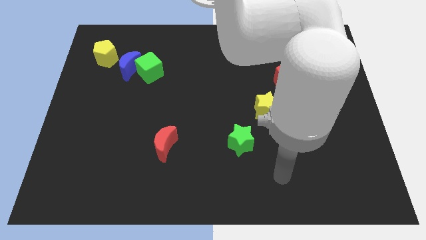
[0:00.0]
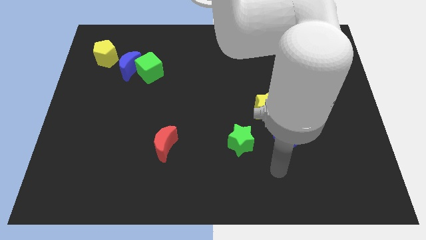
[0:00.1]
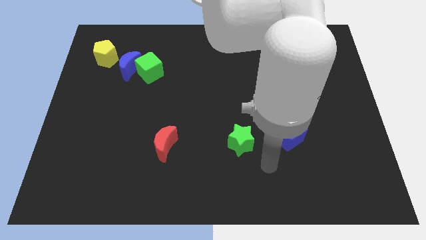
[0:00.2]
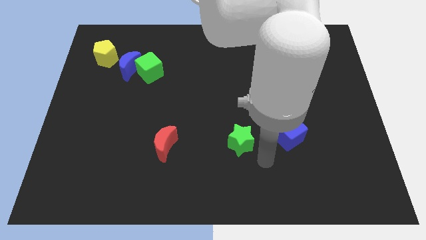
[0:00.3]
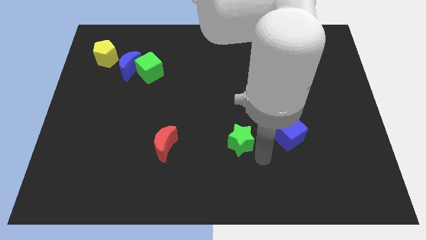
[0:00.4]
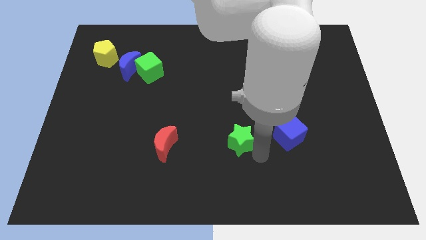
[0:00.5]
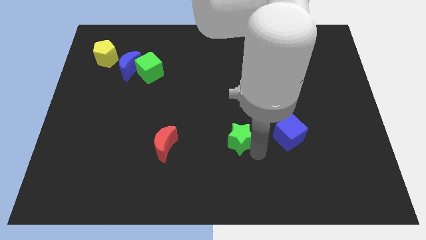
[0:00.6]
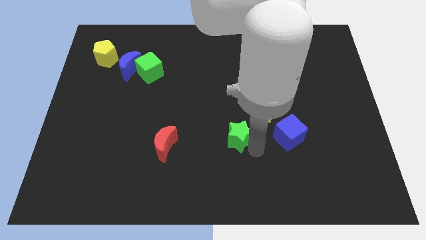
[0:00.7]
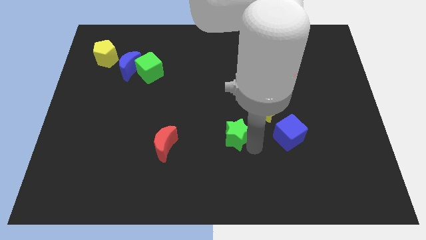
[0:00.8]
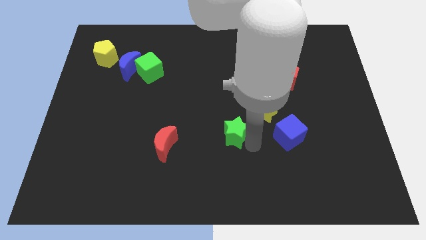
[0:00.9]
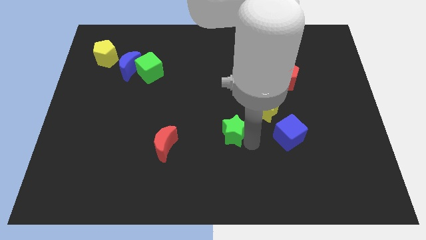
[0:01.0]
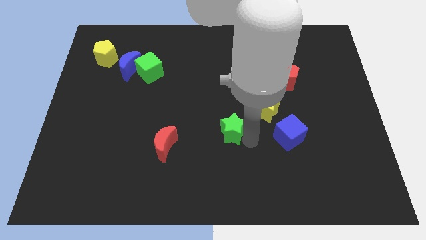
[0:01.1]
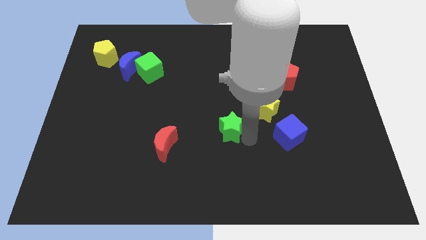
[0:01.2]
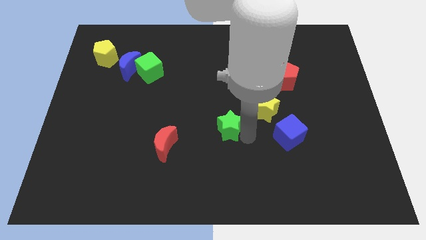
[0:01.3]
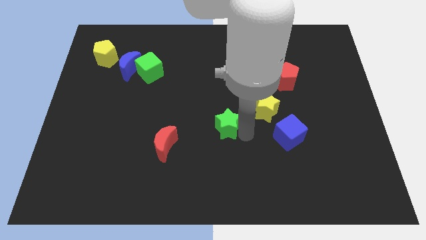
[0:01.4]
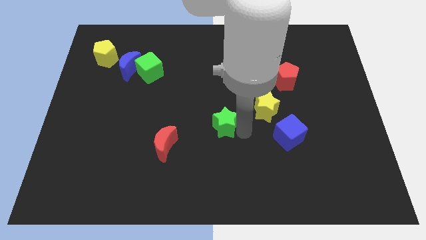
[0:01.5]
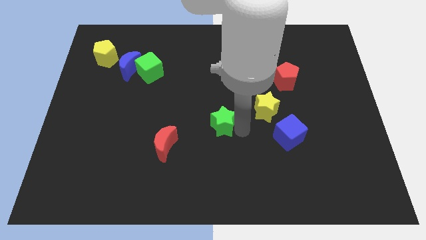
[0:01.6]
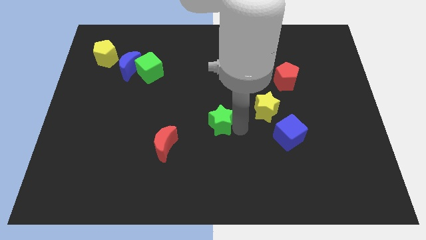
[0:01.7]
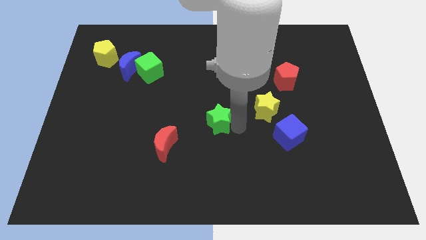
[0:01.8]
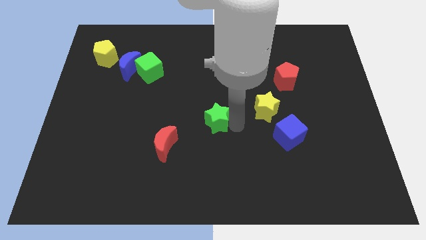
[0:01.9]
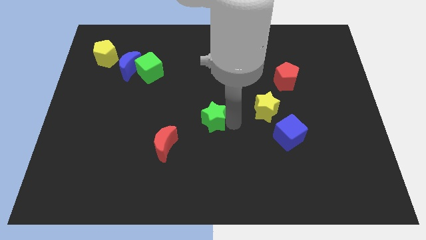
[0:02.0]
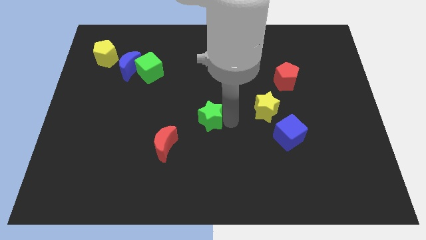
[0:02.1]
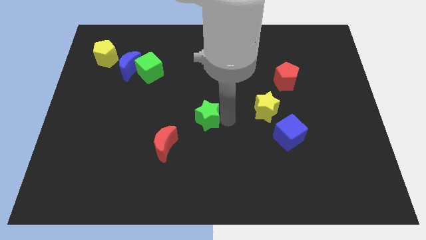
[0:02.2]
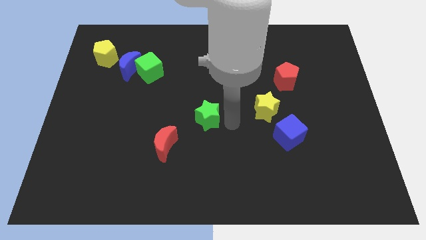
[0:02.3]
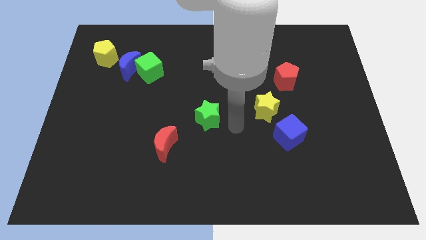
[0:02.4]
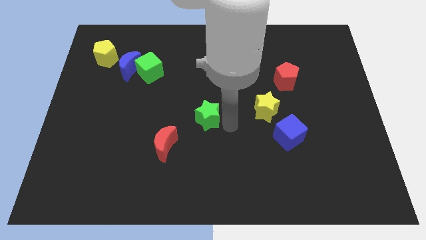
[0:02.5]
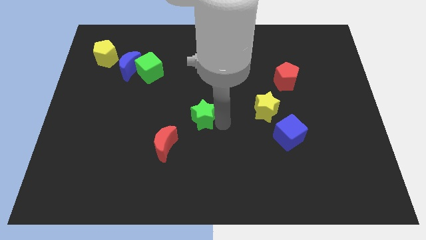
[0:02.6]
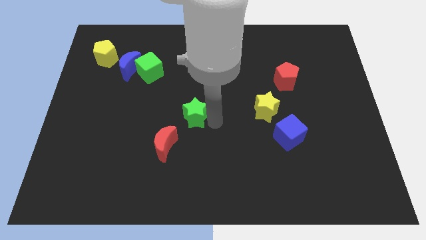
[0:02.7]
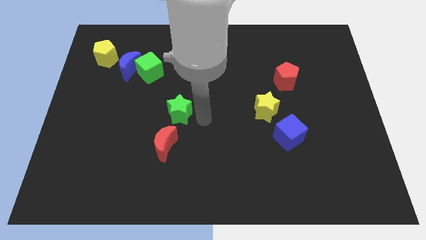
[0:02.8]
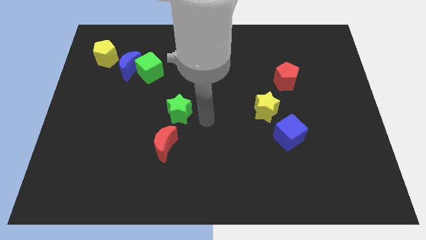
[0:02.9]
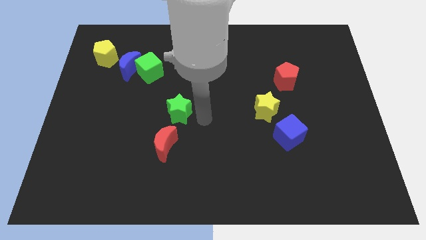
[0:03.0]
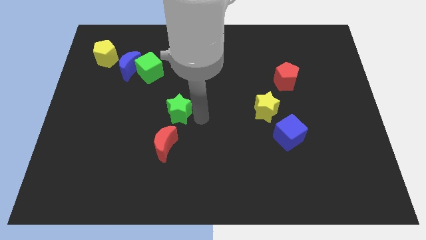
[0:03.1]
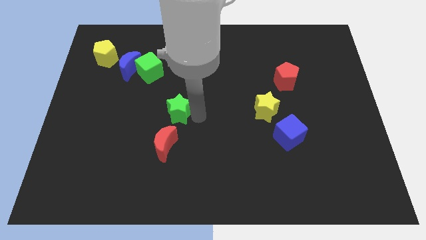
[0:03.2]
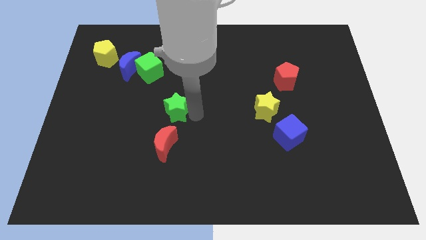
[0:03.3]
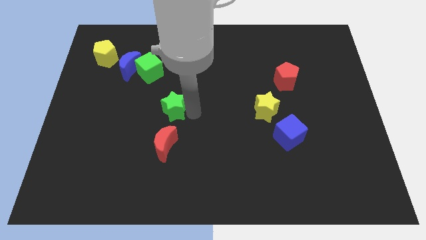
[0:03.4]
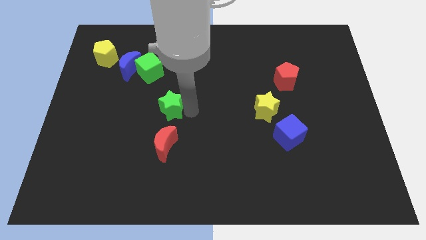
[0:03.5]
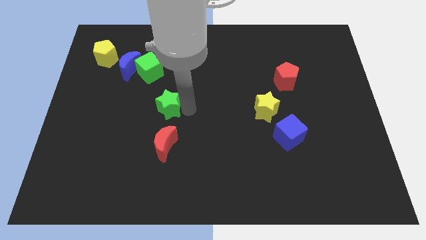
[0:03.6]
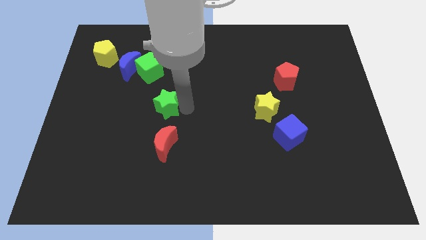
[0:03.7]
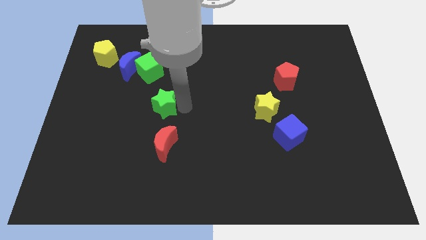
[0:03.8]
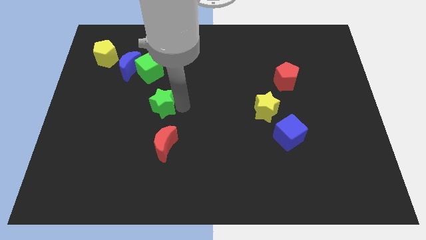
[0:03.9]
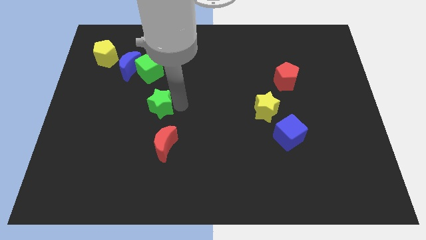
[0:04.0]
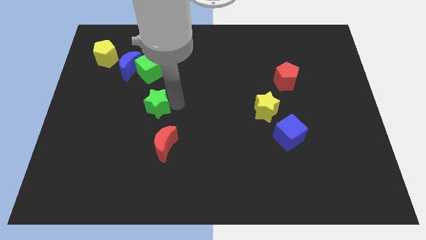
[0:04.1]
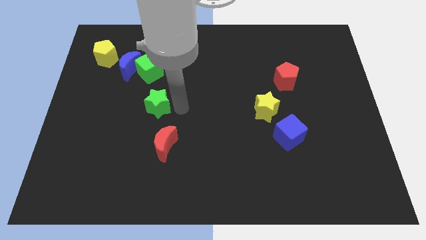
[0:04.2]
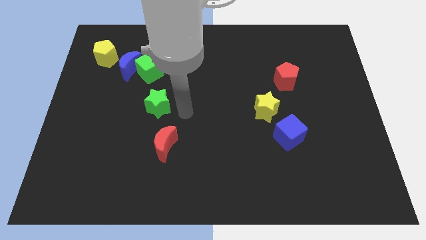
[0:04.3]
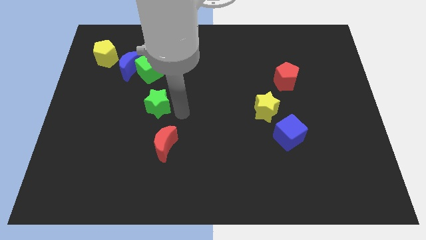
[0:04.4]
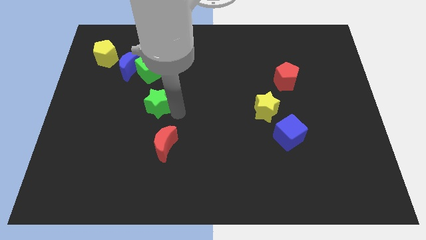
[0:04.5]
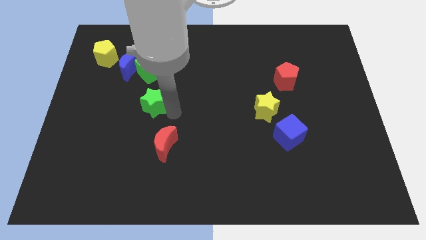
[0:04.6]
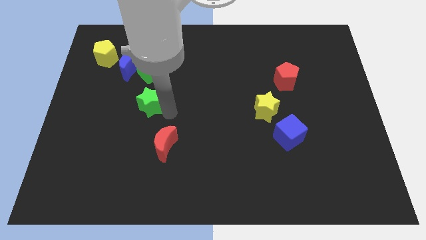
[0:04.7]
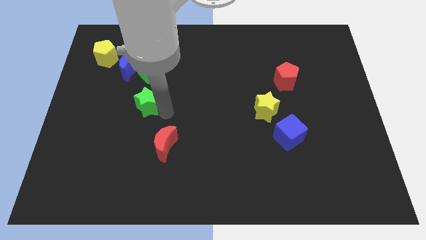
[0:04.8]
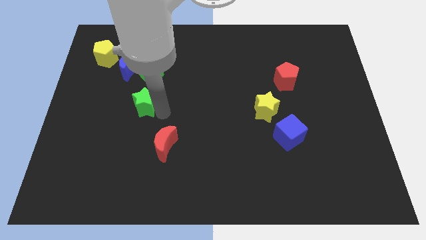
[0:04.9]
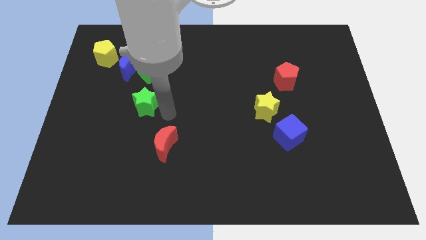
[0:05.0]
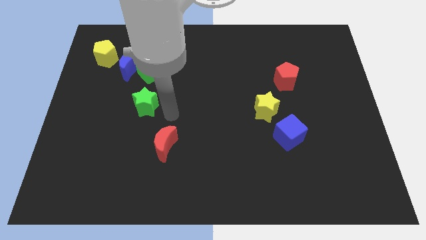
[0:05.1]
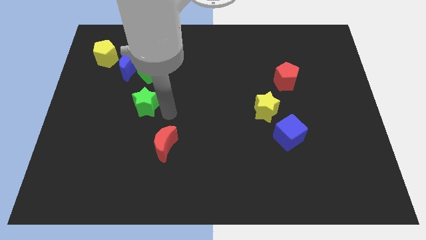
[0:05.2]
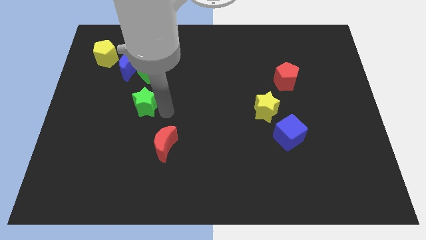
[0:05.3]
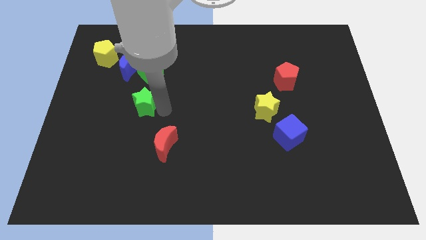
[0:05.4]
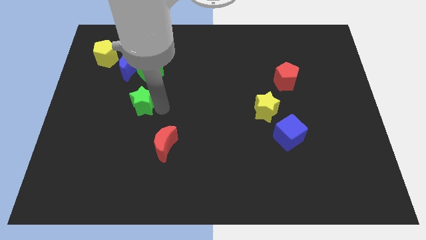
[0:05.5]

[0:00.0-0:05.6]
move the green star to the bottom side of the blue moon

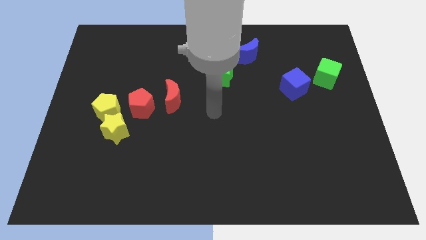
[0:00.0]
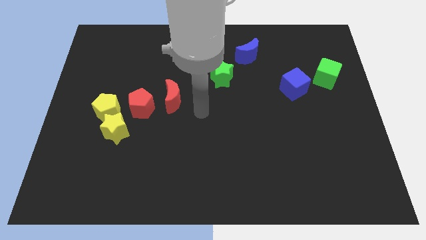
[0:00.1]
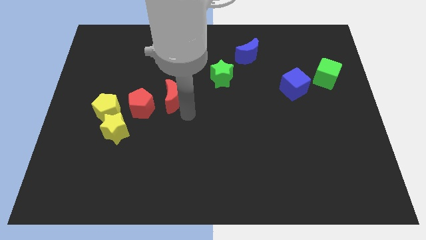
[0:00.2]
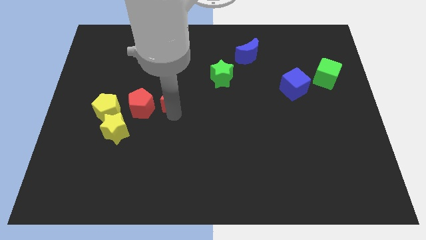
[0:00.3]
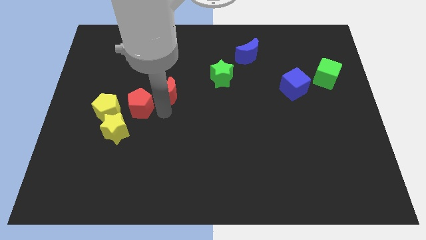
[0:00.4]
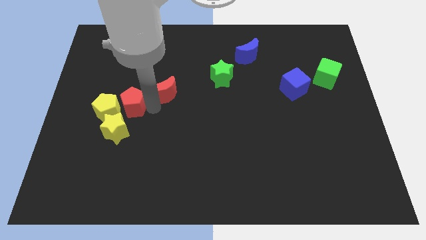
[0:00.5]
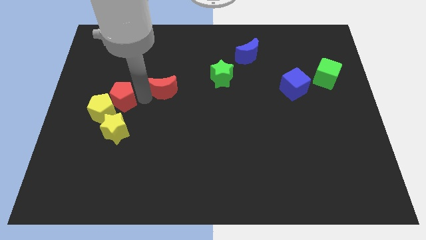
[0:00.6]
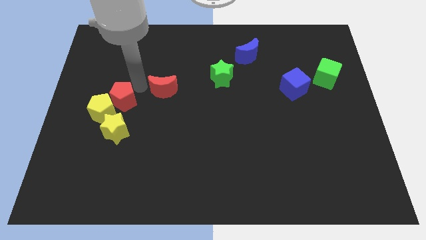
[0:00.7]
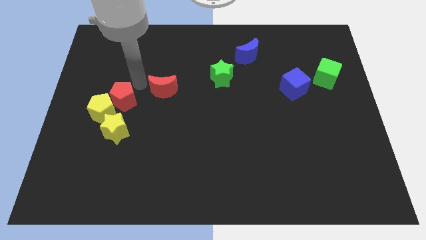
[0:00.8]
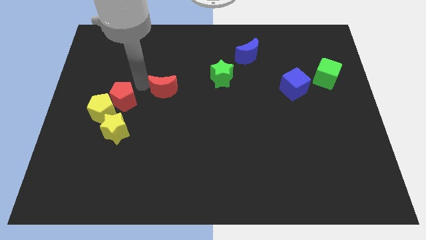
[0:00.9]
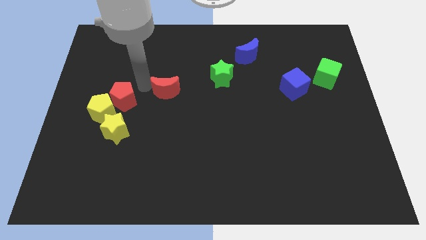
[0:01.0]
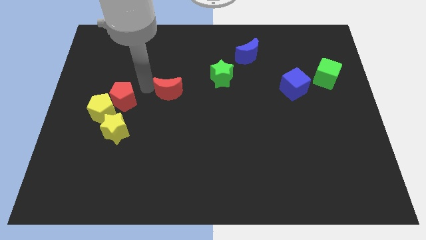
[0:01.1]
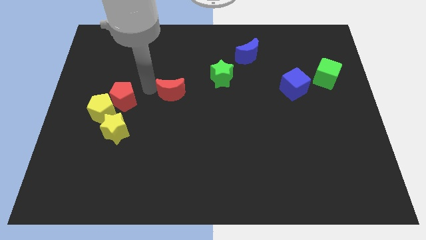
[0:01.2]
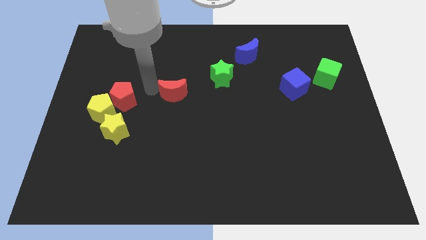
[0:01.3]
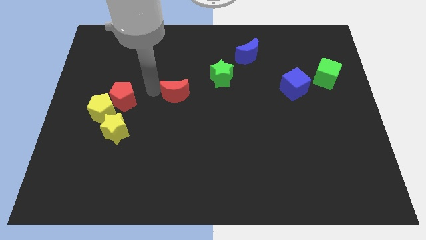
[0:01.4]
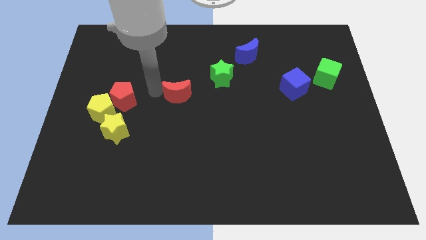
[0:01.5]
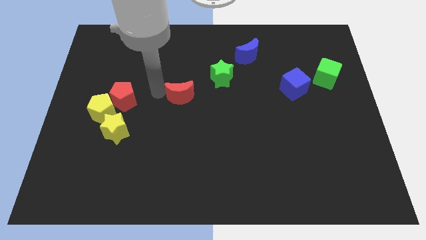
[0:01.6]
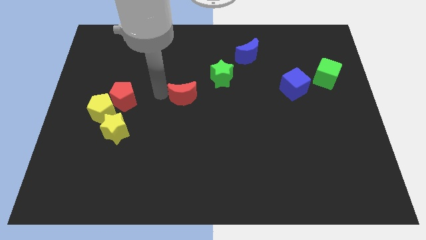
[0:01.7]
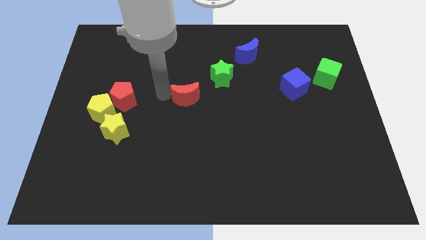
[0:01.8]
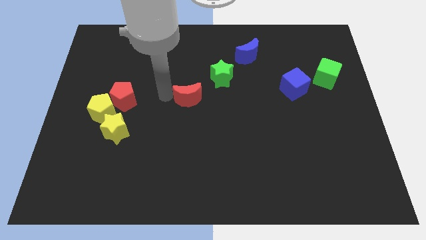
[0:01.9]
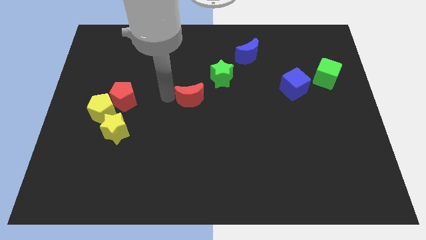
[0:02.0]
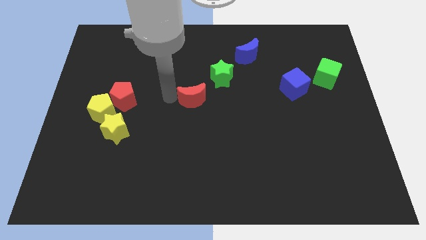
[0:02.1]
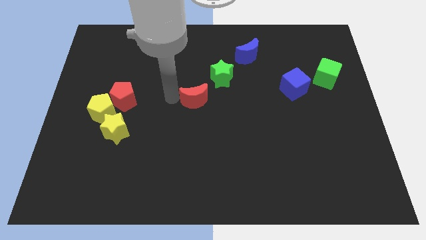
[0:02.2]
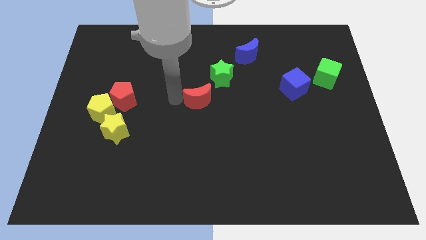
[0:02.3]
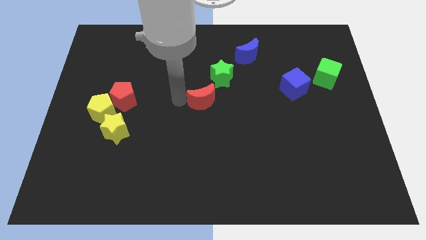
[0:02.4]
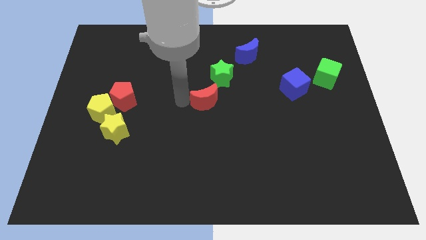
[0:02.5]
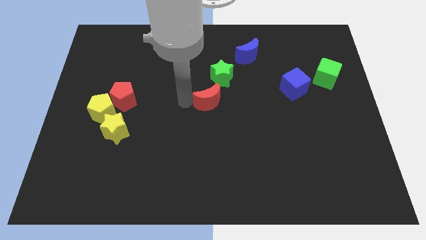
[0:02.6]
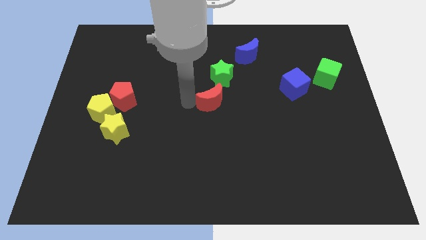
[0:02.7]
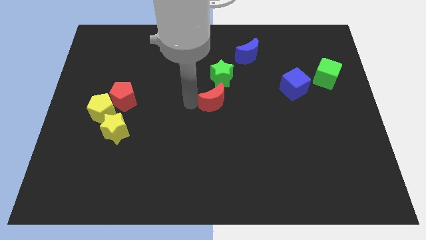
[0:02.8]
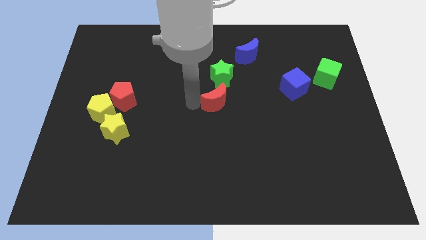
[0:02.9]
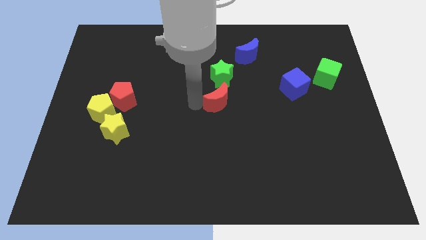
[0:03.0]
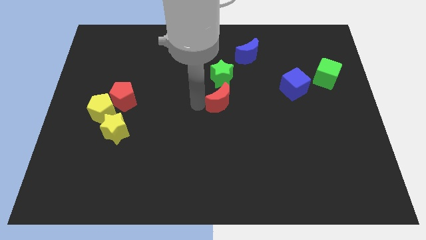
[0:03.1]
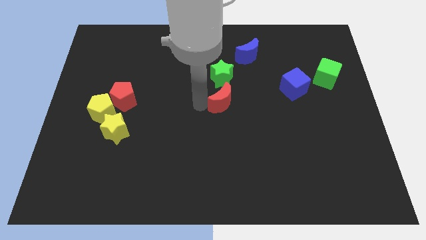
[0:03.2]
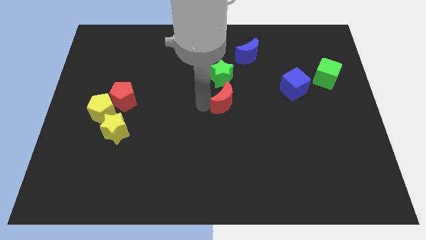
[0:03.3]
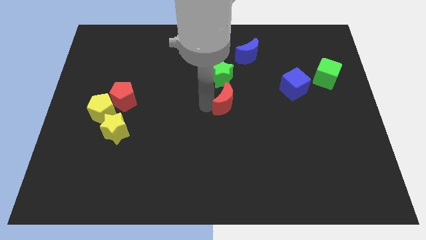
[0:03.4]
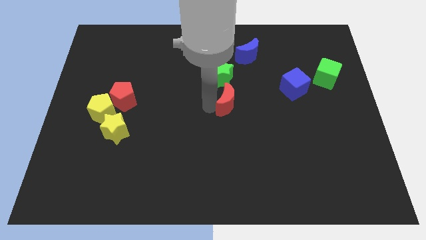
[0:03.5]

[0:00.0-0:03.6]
push the red moon to the bottom right of the green star
